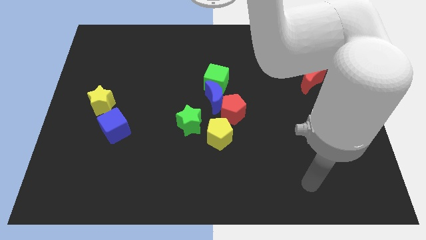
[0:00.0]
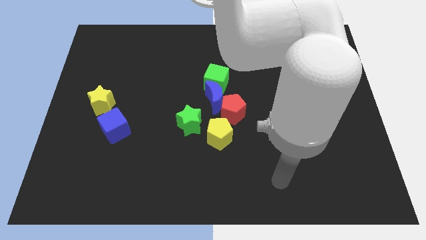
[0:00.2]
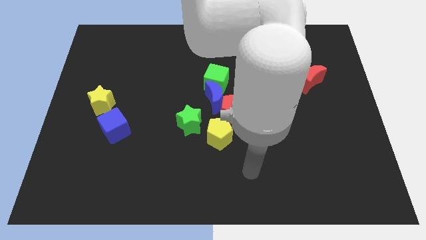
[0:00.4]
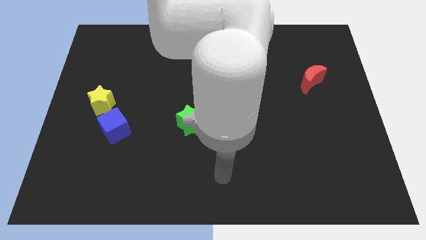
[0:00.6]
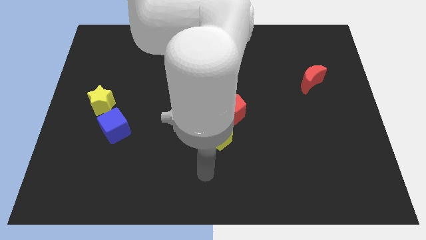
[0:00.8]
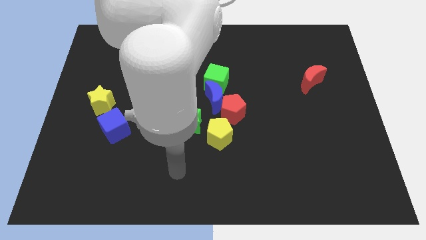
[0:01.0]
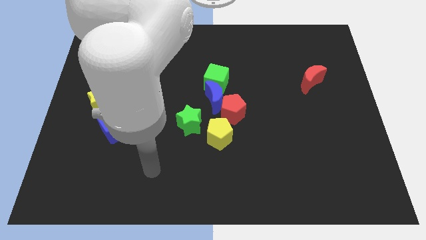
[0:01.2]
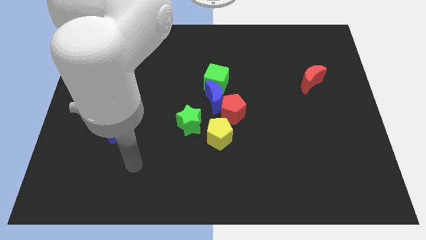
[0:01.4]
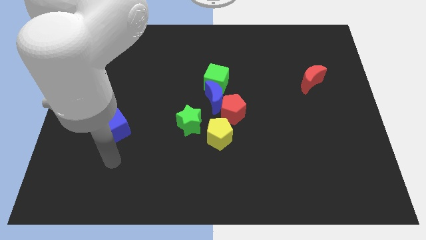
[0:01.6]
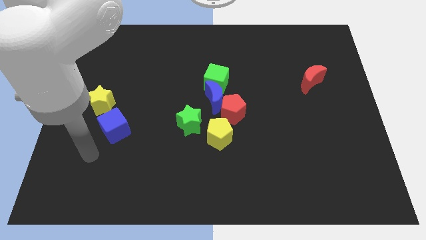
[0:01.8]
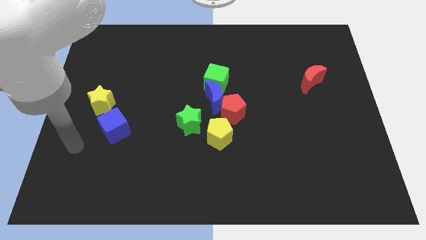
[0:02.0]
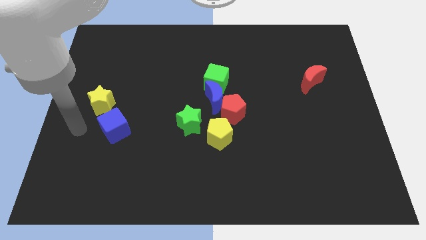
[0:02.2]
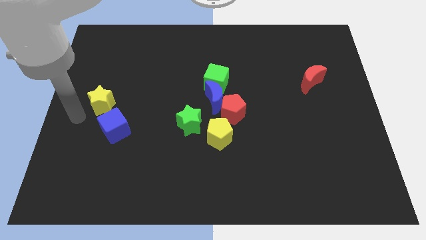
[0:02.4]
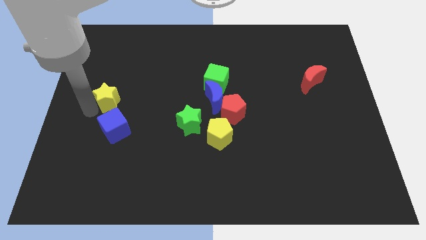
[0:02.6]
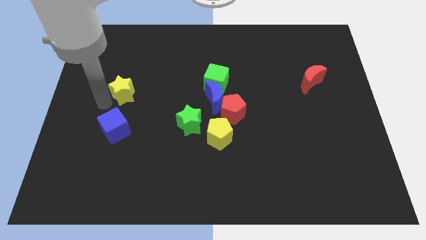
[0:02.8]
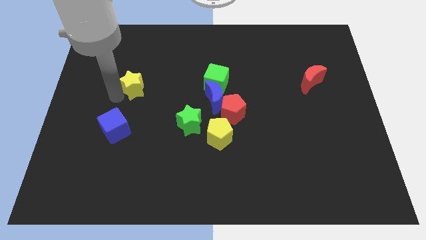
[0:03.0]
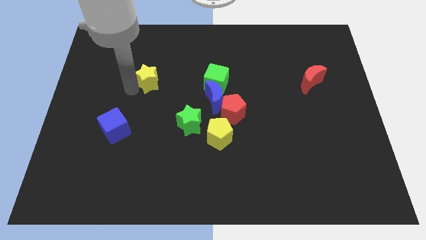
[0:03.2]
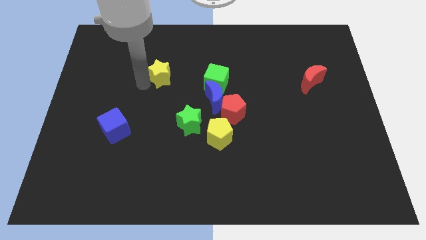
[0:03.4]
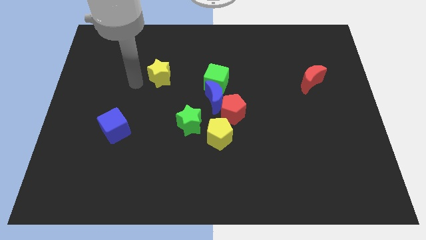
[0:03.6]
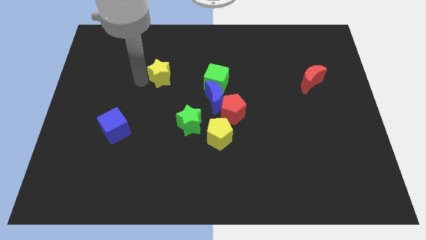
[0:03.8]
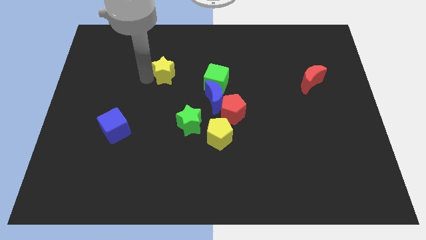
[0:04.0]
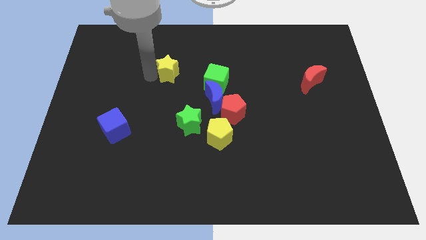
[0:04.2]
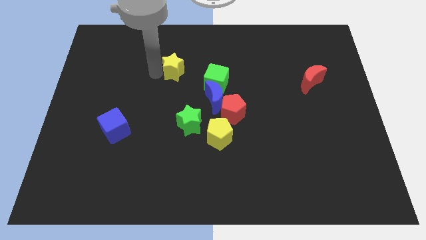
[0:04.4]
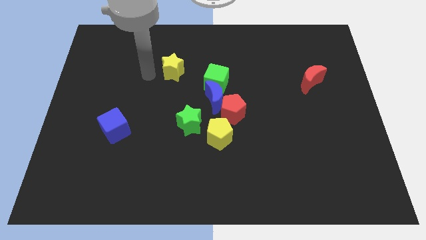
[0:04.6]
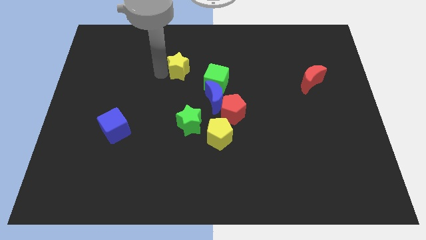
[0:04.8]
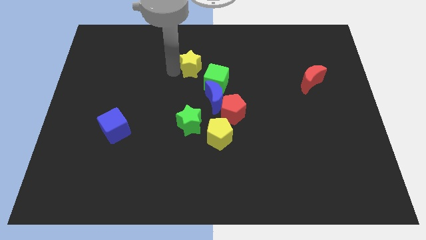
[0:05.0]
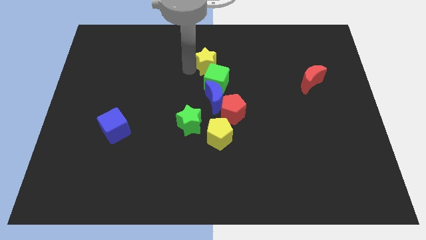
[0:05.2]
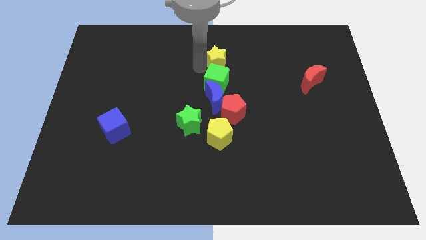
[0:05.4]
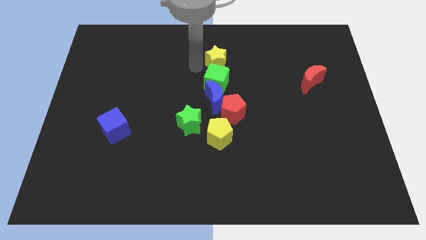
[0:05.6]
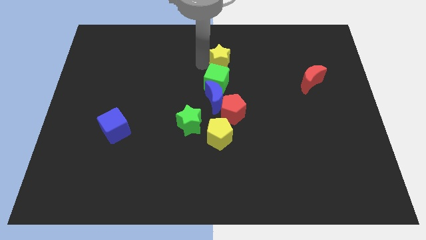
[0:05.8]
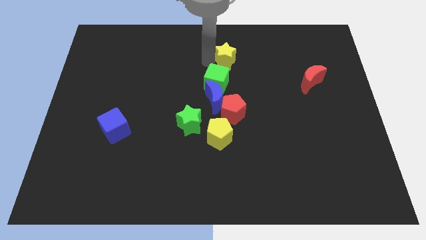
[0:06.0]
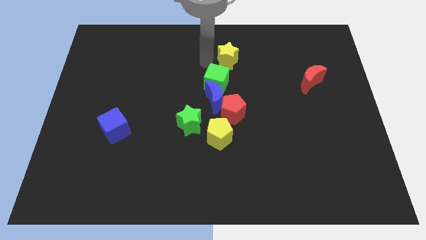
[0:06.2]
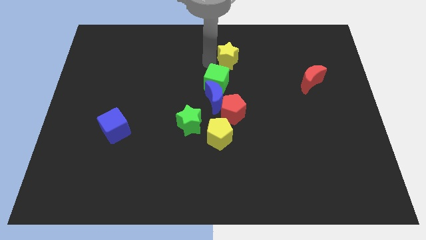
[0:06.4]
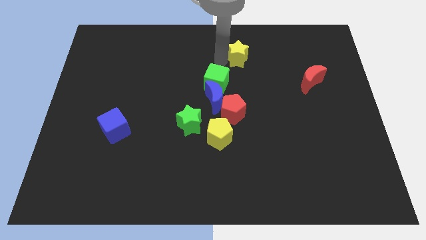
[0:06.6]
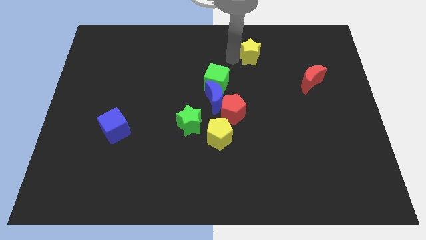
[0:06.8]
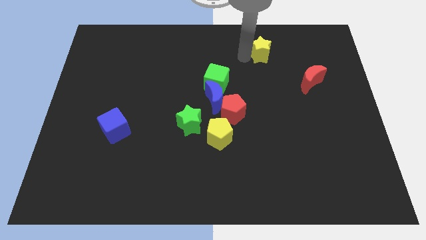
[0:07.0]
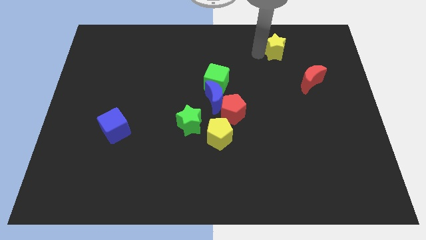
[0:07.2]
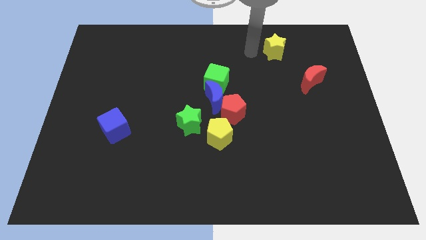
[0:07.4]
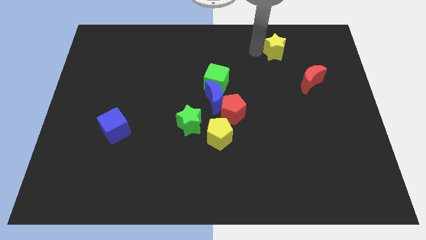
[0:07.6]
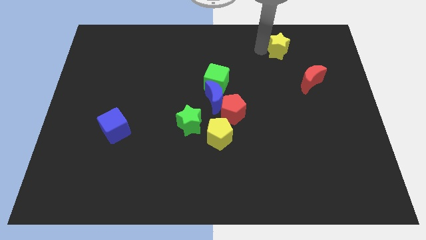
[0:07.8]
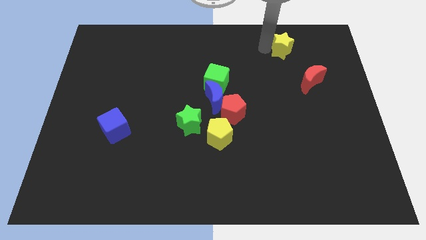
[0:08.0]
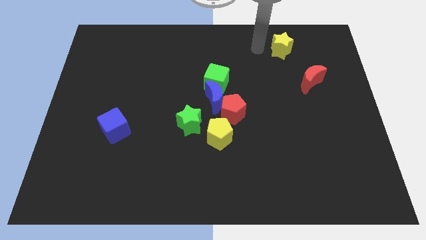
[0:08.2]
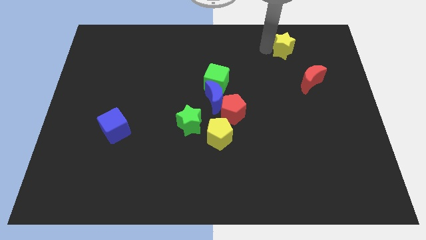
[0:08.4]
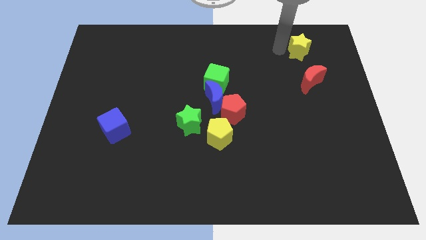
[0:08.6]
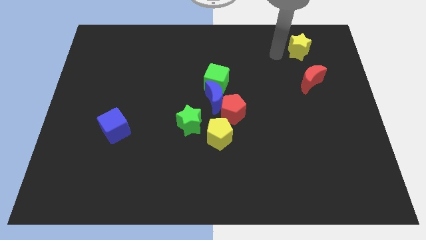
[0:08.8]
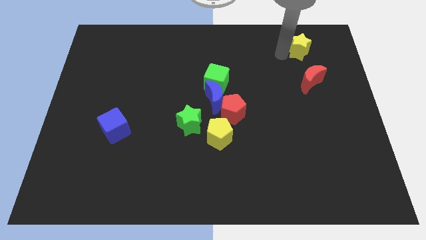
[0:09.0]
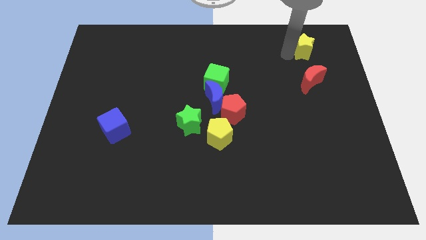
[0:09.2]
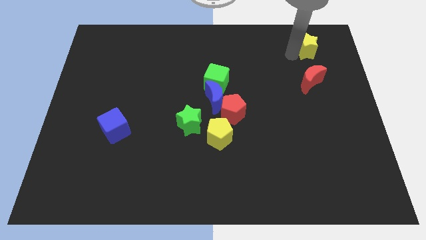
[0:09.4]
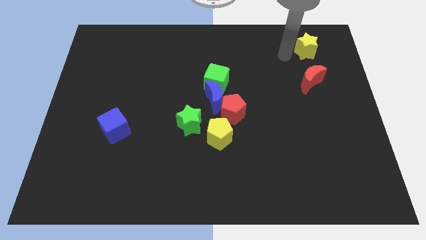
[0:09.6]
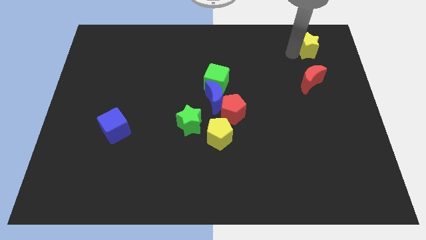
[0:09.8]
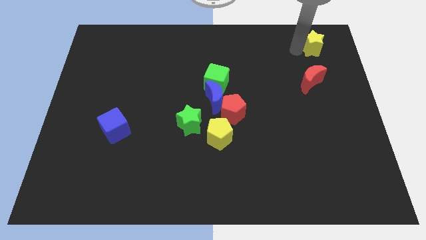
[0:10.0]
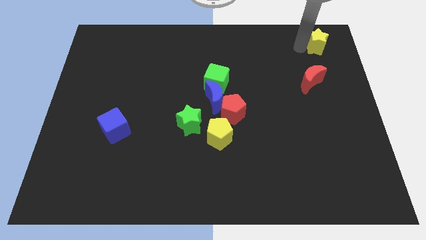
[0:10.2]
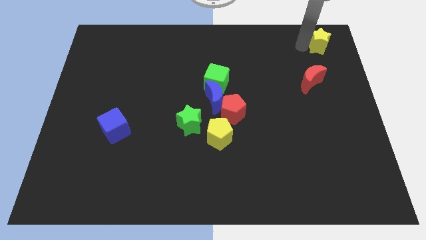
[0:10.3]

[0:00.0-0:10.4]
put the yellow star to the upper right corner

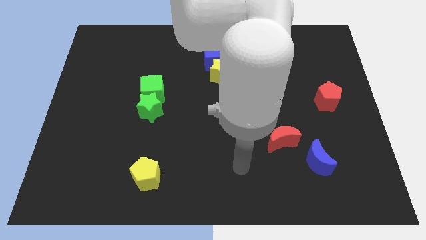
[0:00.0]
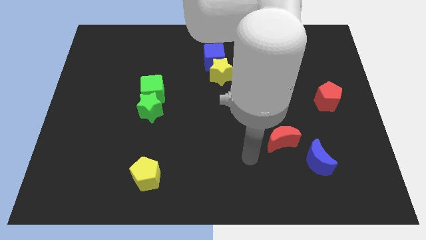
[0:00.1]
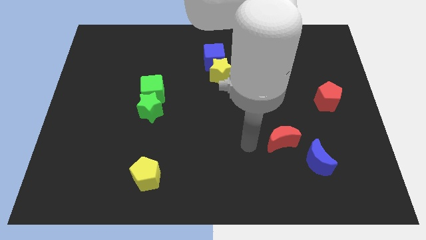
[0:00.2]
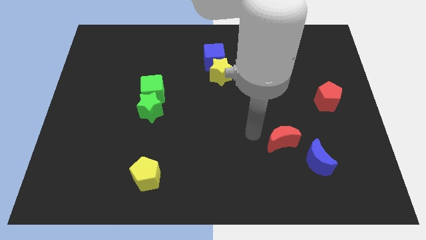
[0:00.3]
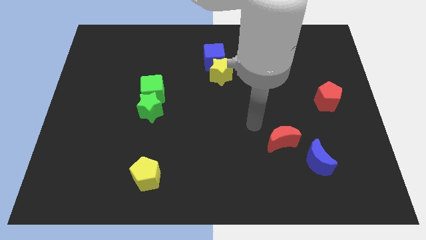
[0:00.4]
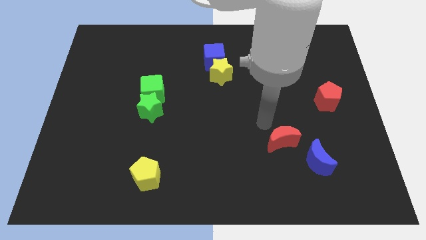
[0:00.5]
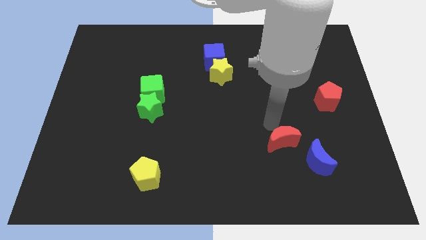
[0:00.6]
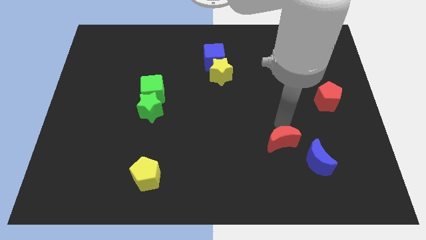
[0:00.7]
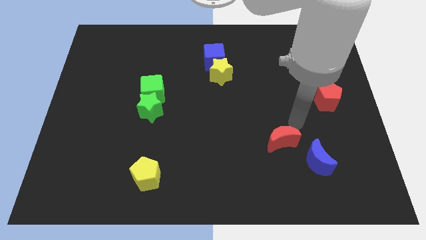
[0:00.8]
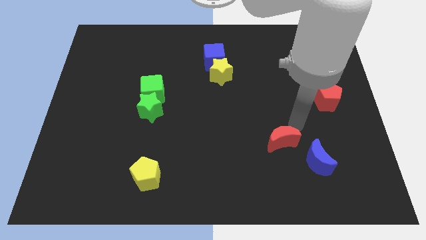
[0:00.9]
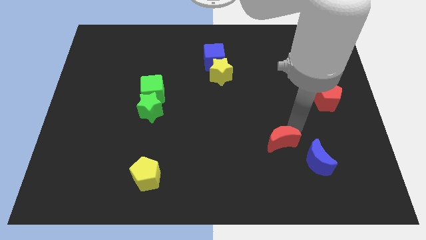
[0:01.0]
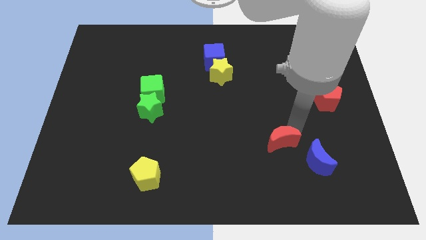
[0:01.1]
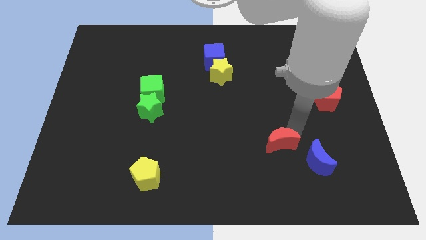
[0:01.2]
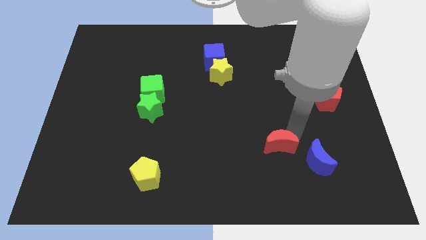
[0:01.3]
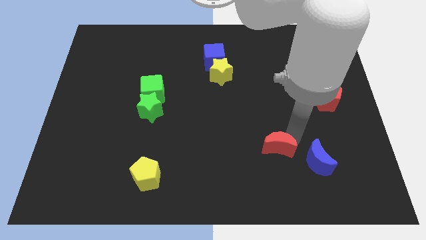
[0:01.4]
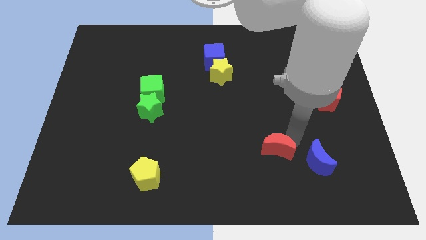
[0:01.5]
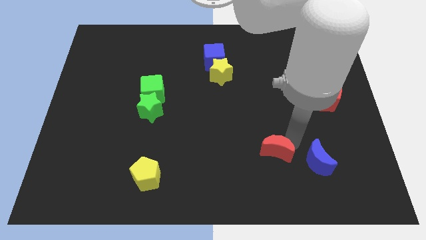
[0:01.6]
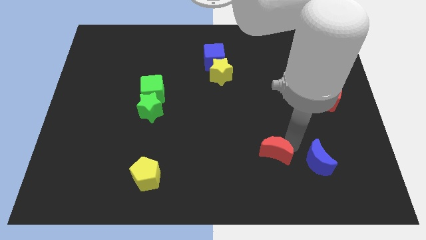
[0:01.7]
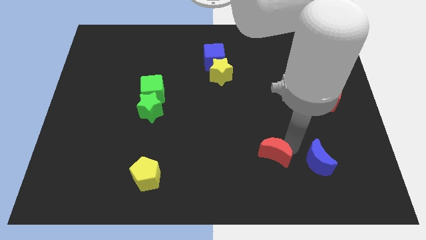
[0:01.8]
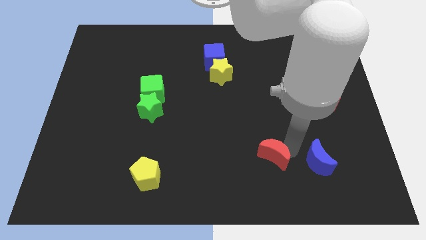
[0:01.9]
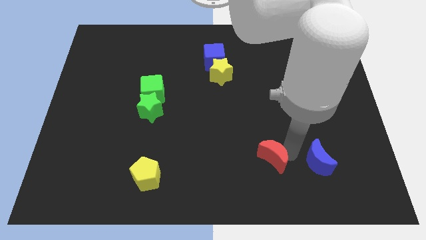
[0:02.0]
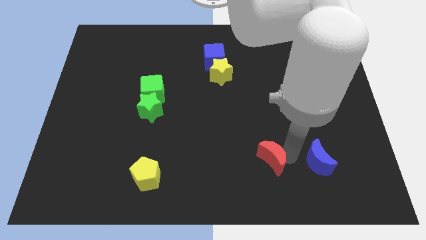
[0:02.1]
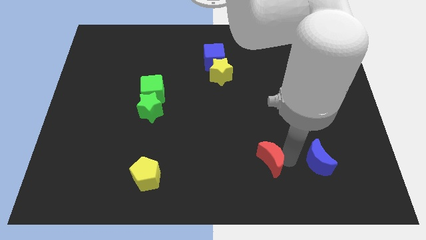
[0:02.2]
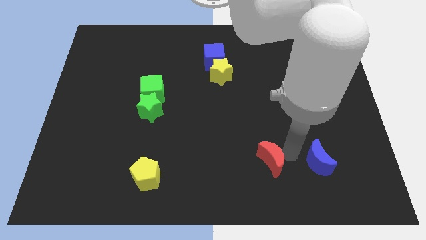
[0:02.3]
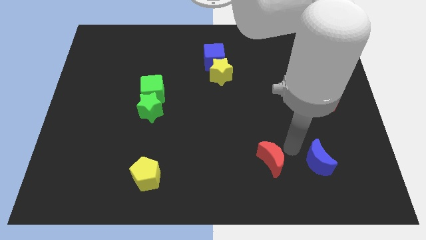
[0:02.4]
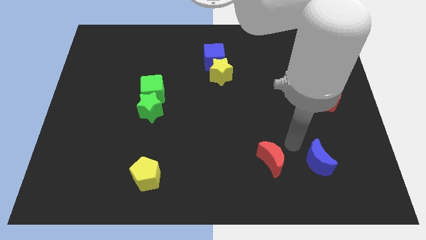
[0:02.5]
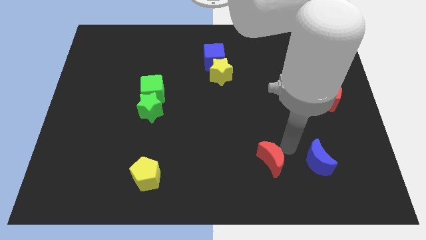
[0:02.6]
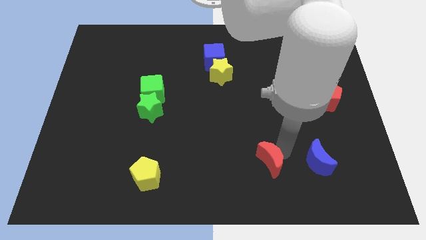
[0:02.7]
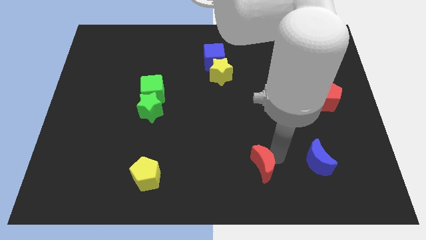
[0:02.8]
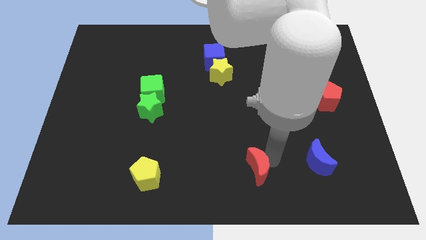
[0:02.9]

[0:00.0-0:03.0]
put the red moon to the bottom
